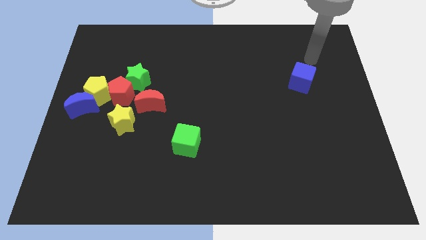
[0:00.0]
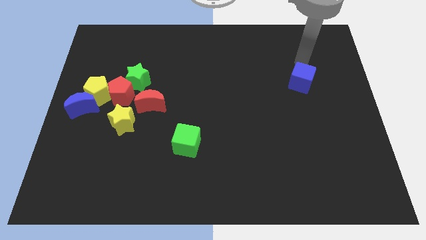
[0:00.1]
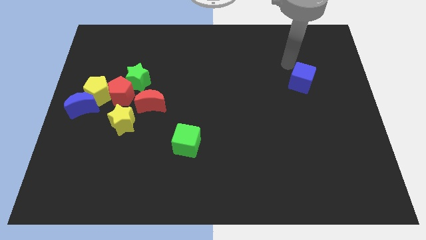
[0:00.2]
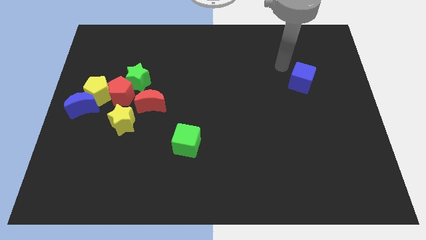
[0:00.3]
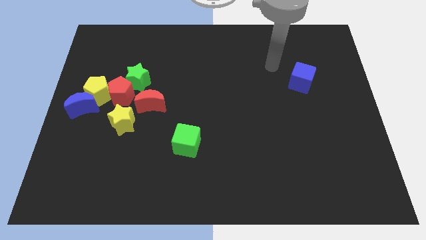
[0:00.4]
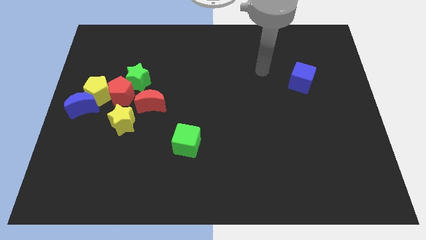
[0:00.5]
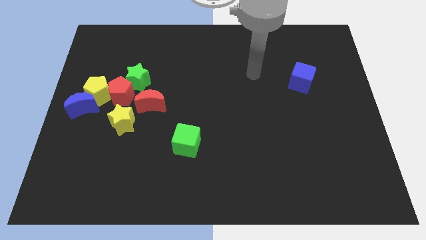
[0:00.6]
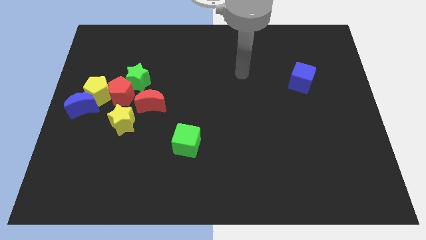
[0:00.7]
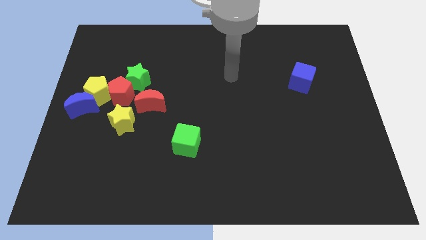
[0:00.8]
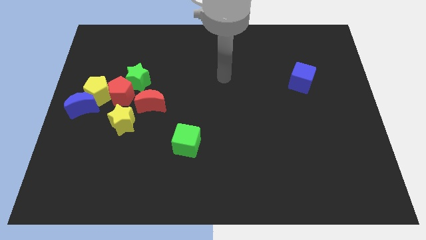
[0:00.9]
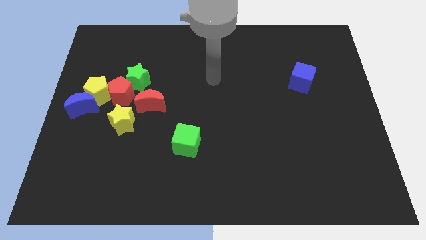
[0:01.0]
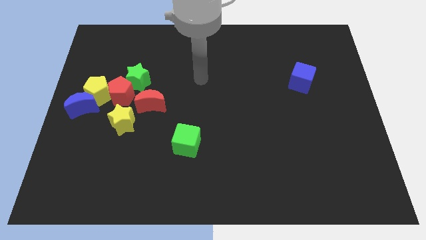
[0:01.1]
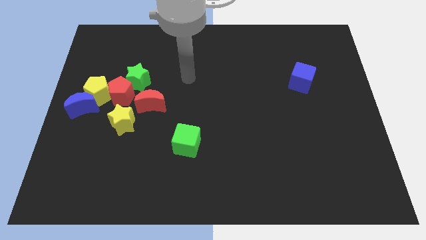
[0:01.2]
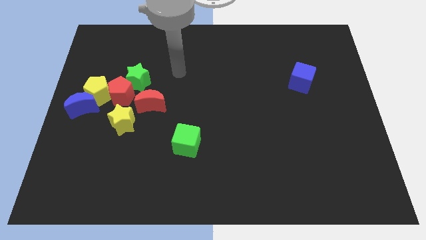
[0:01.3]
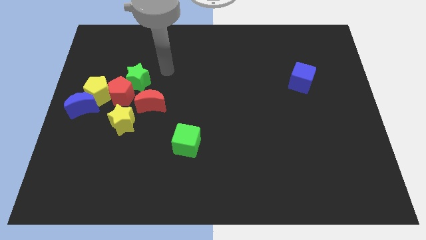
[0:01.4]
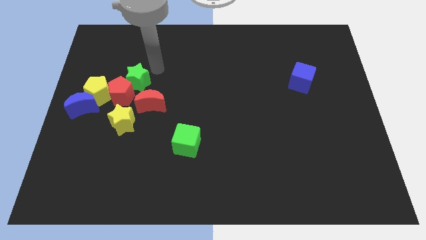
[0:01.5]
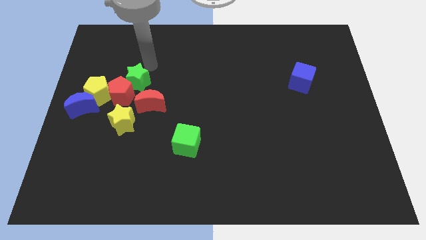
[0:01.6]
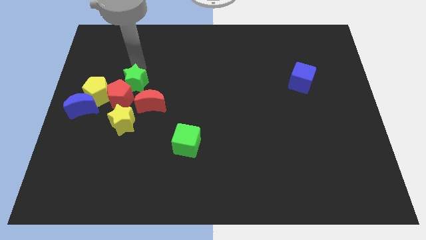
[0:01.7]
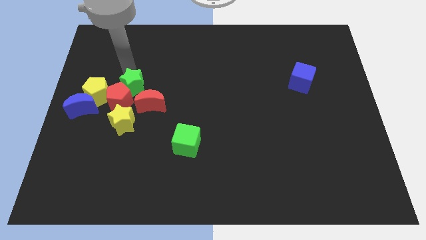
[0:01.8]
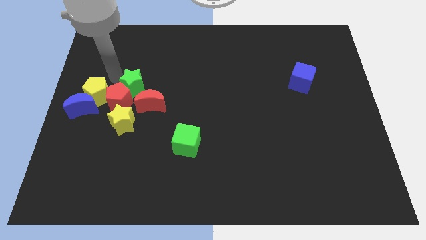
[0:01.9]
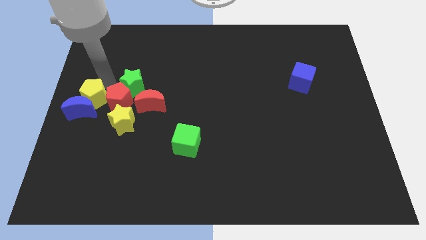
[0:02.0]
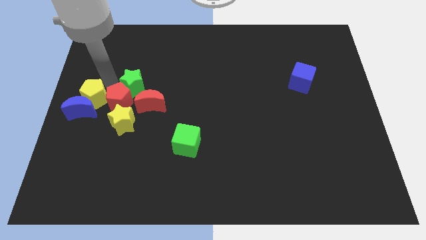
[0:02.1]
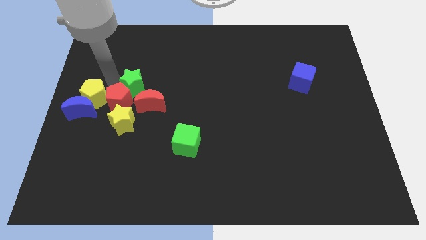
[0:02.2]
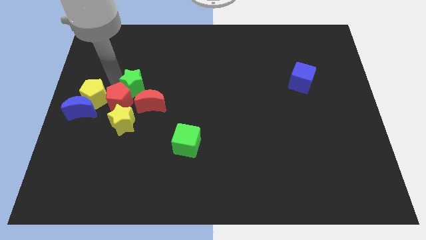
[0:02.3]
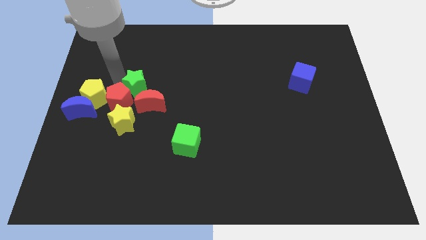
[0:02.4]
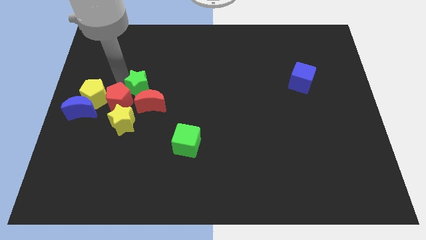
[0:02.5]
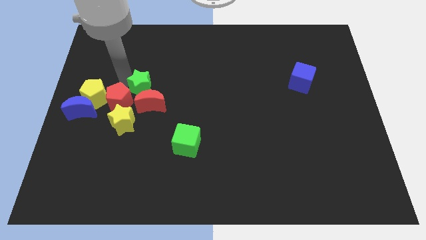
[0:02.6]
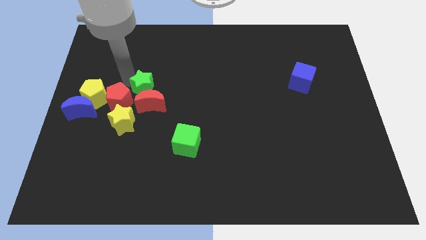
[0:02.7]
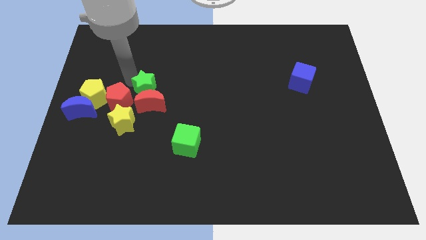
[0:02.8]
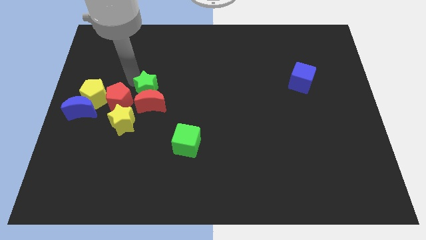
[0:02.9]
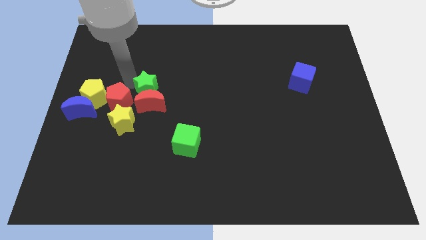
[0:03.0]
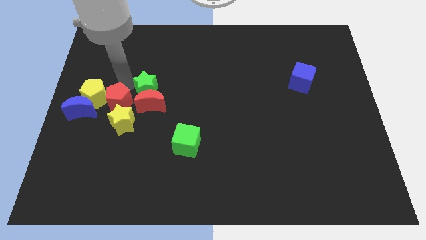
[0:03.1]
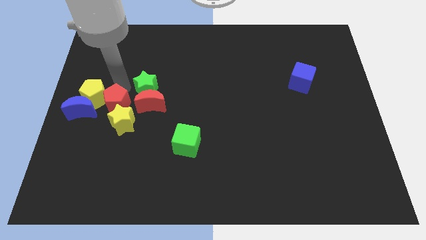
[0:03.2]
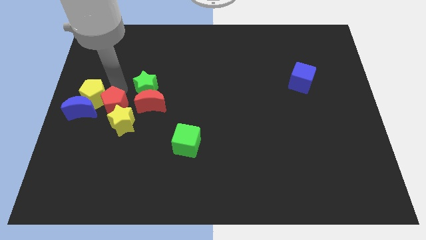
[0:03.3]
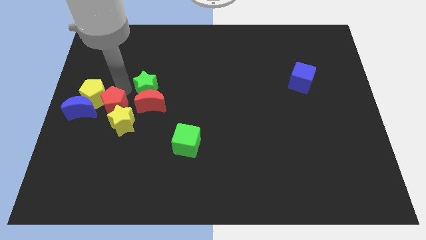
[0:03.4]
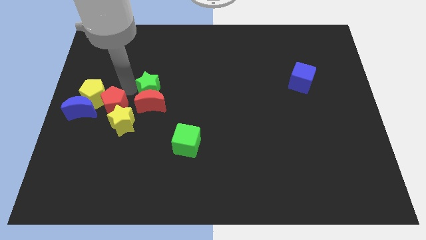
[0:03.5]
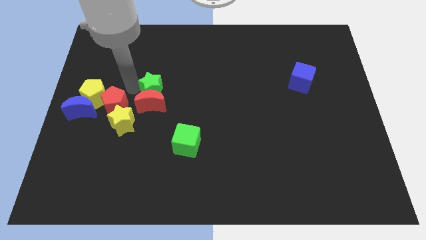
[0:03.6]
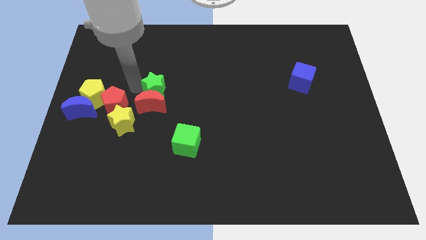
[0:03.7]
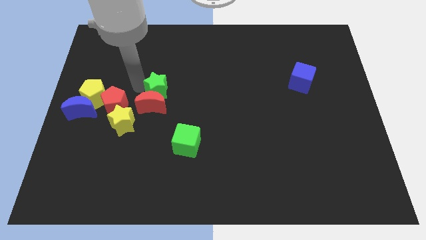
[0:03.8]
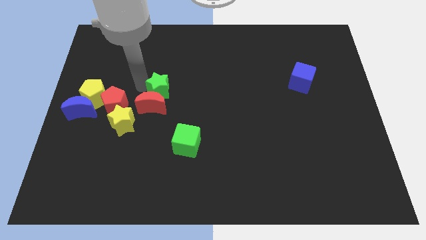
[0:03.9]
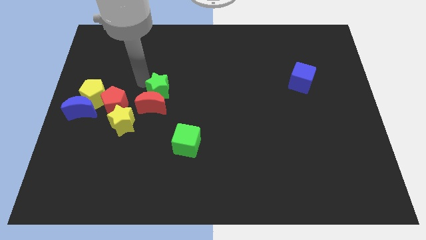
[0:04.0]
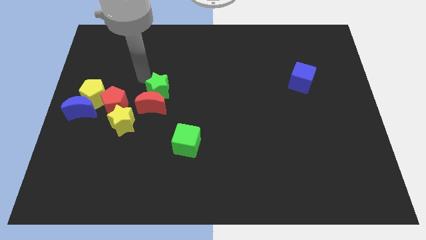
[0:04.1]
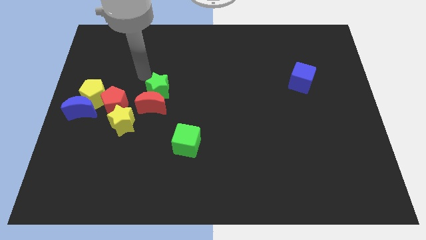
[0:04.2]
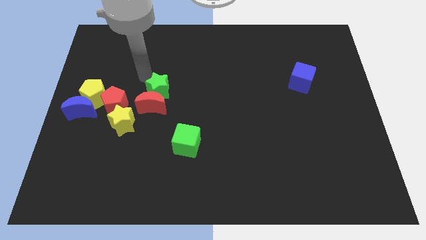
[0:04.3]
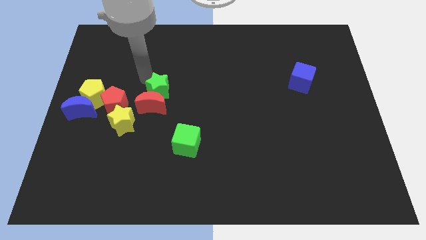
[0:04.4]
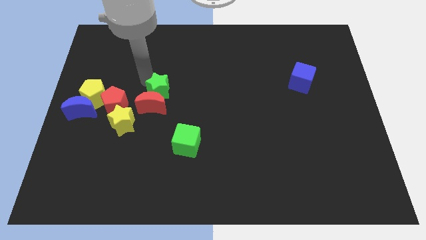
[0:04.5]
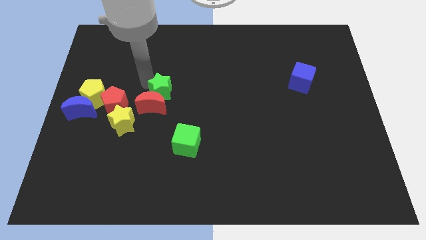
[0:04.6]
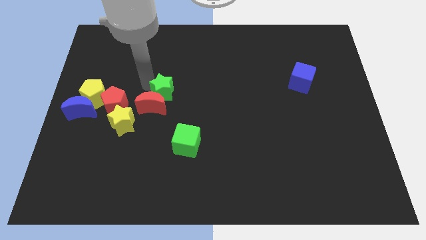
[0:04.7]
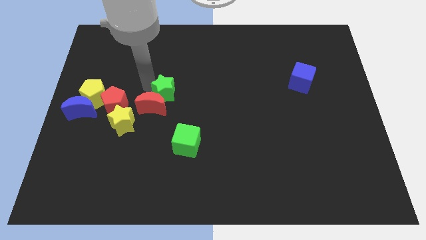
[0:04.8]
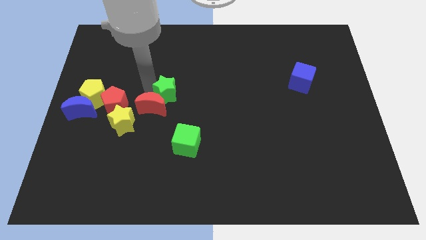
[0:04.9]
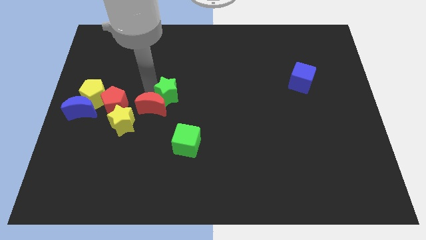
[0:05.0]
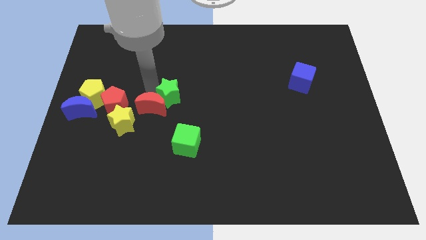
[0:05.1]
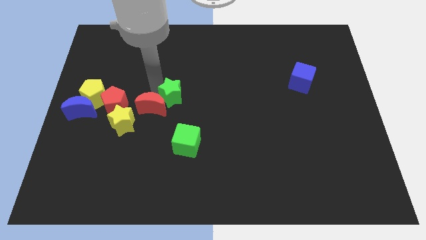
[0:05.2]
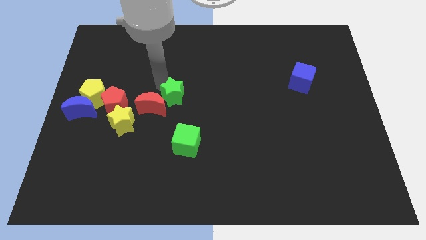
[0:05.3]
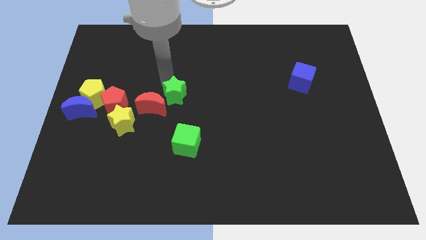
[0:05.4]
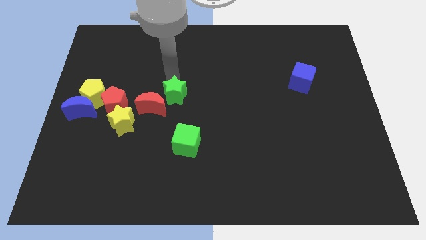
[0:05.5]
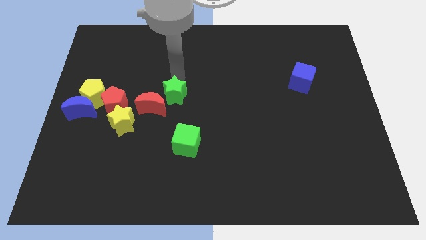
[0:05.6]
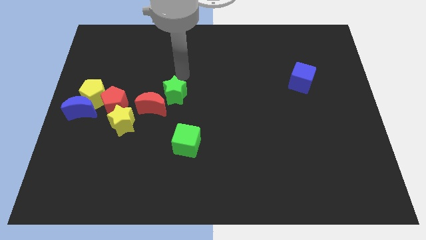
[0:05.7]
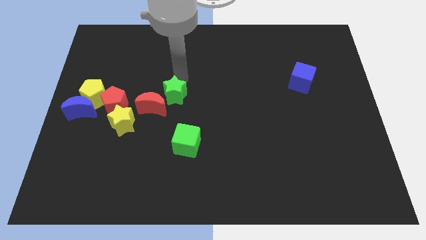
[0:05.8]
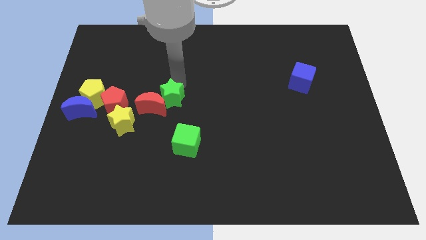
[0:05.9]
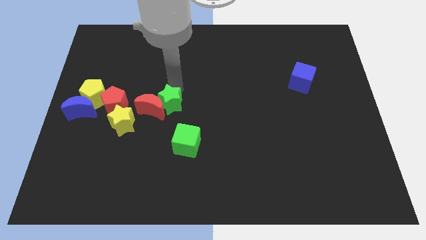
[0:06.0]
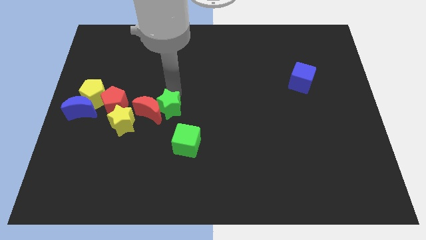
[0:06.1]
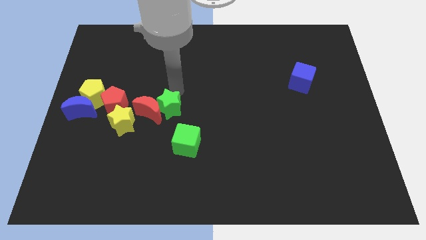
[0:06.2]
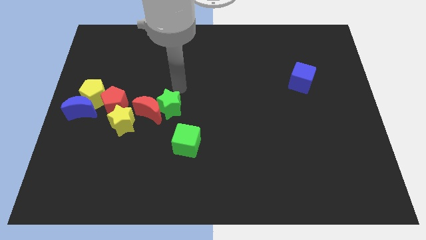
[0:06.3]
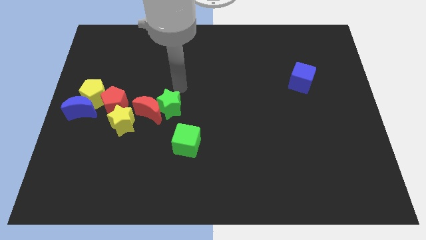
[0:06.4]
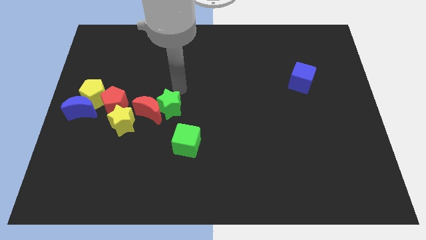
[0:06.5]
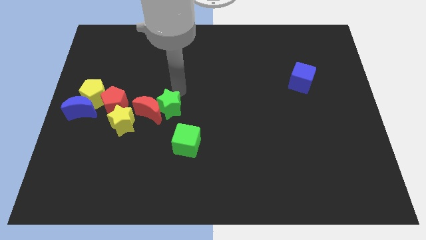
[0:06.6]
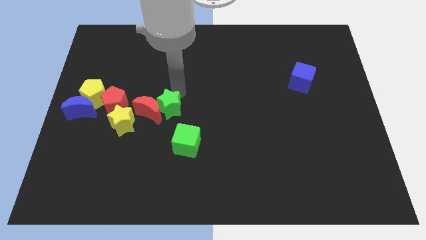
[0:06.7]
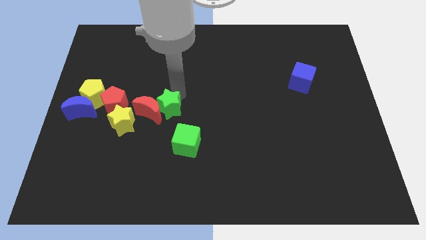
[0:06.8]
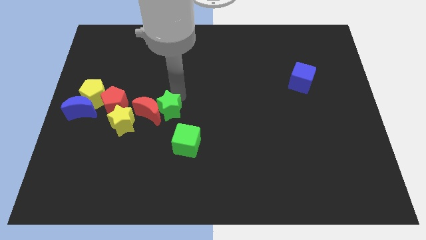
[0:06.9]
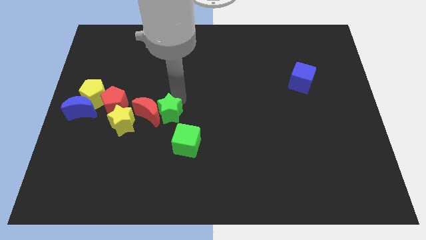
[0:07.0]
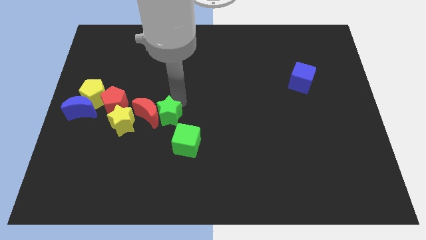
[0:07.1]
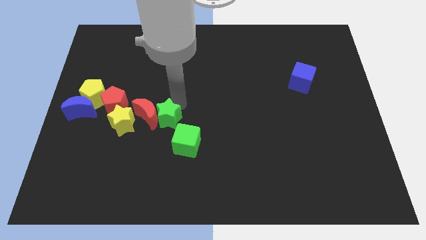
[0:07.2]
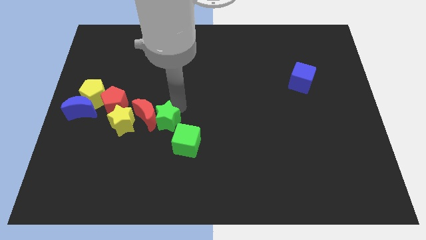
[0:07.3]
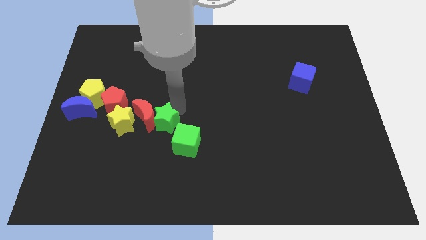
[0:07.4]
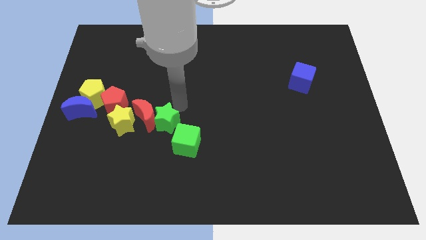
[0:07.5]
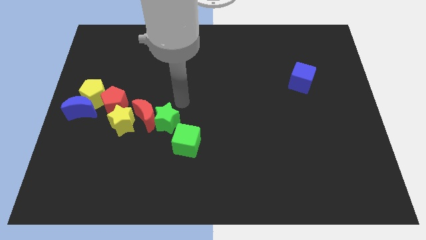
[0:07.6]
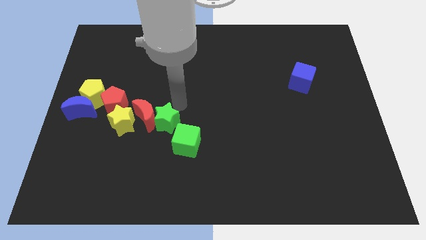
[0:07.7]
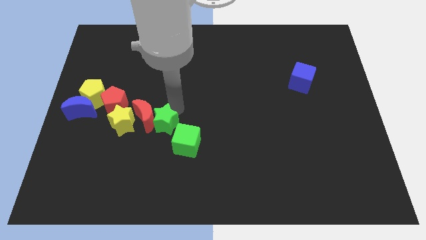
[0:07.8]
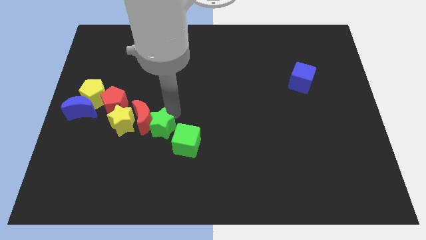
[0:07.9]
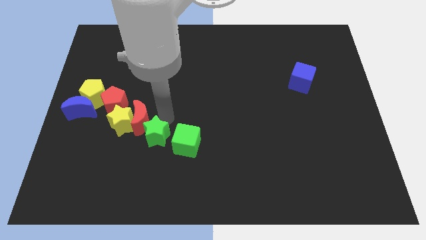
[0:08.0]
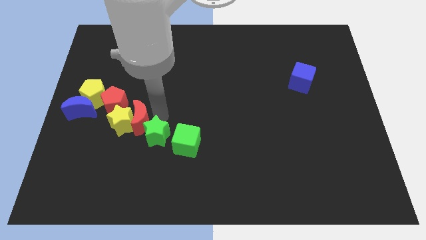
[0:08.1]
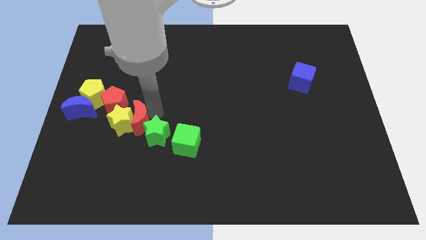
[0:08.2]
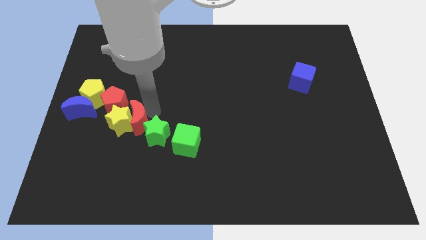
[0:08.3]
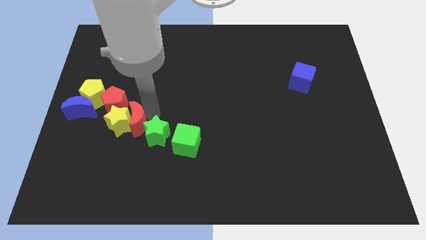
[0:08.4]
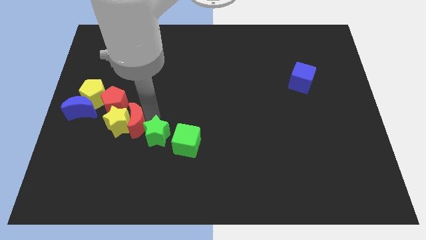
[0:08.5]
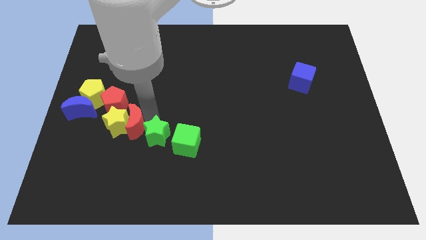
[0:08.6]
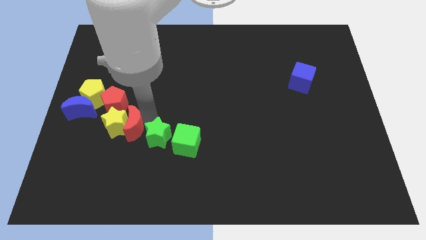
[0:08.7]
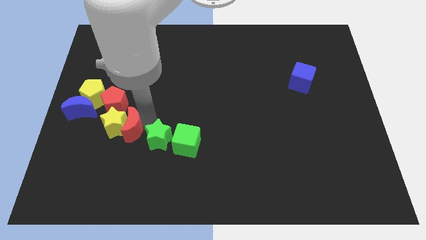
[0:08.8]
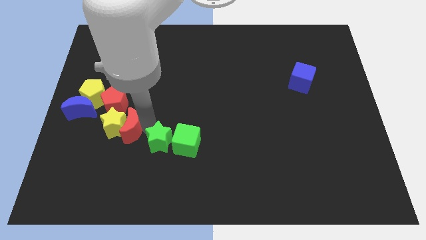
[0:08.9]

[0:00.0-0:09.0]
slide the green star to the bottom left of the green cube
